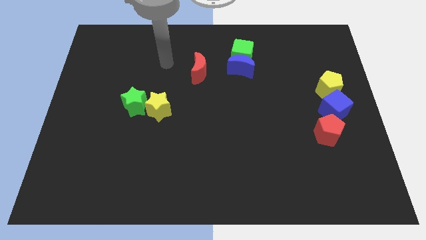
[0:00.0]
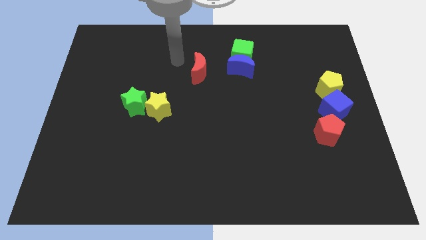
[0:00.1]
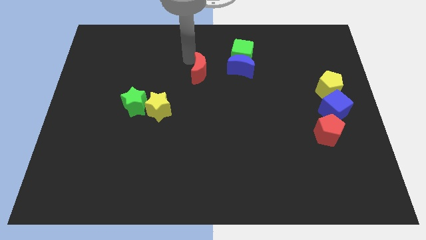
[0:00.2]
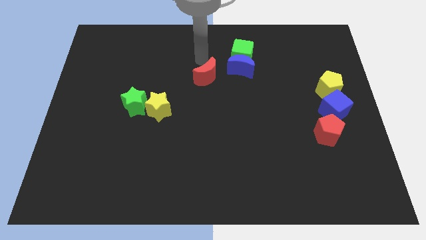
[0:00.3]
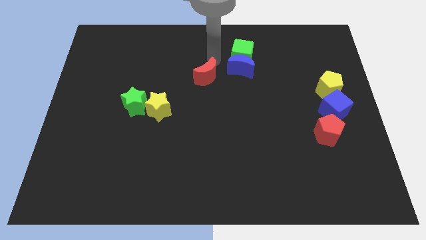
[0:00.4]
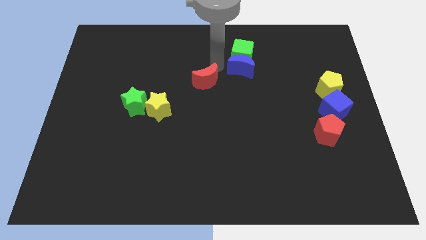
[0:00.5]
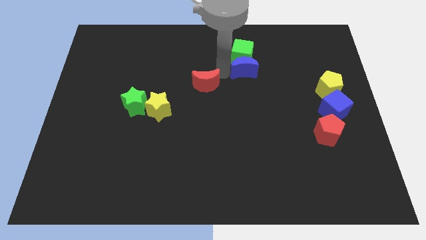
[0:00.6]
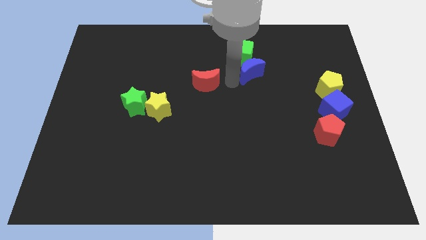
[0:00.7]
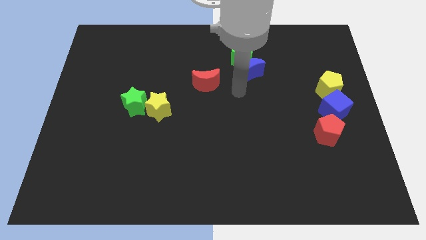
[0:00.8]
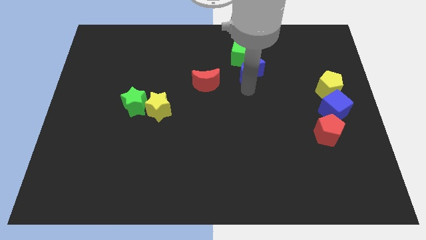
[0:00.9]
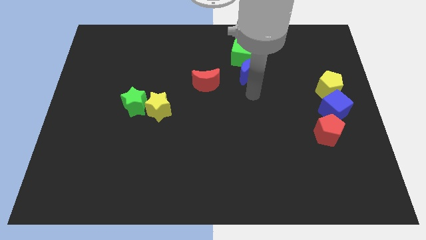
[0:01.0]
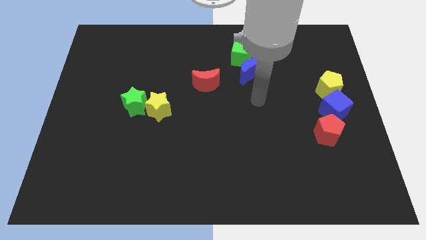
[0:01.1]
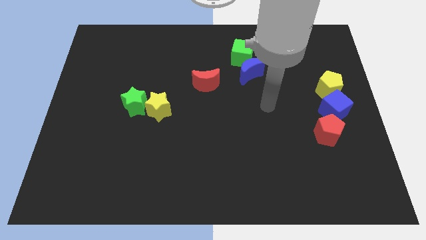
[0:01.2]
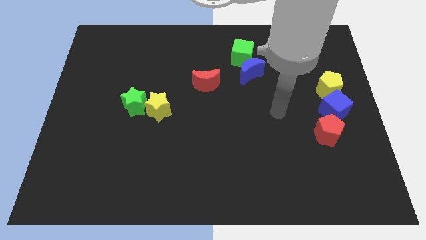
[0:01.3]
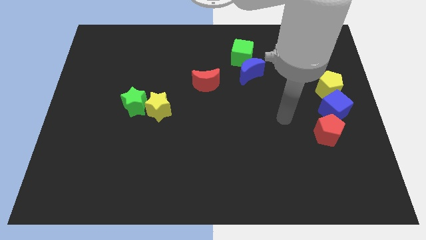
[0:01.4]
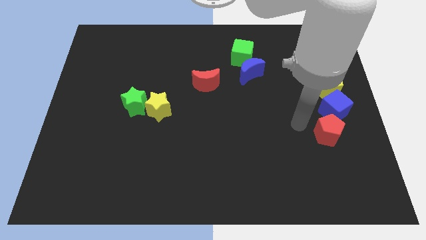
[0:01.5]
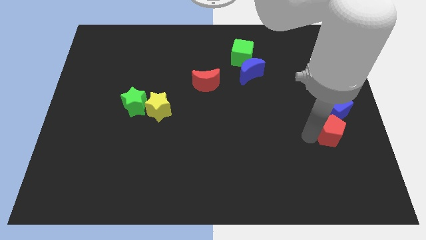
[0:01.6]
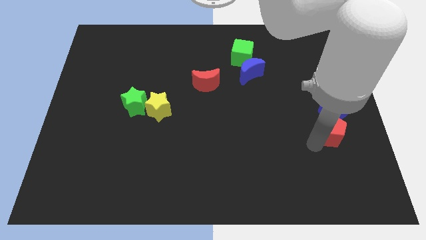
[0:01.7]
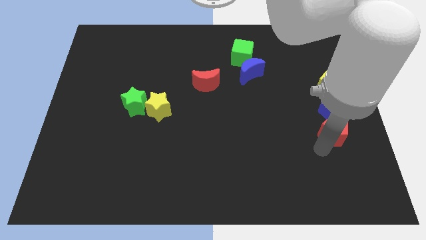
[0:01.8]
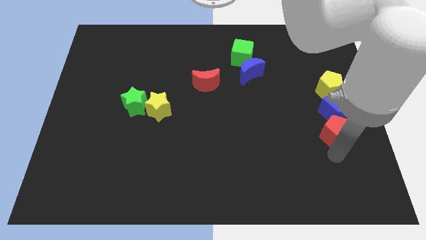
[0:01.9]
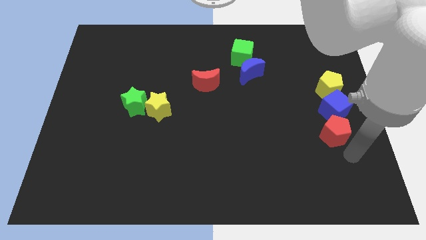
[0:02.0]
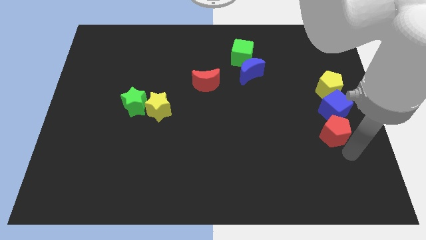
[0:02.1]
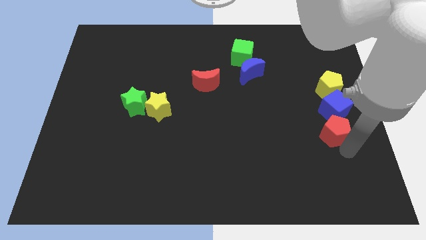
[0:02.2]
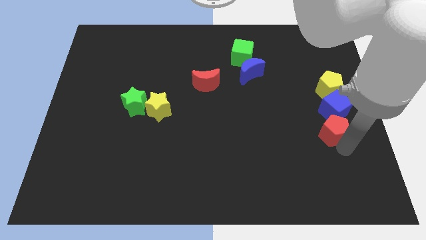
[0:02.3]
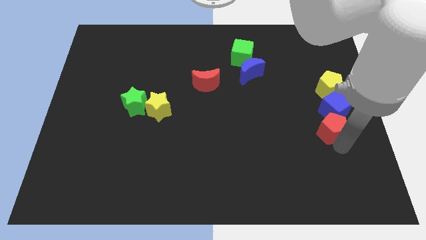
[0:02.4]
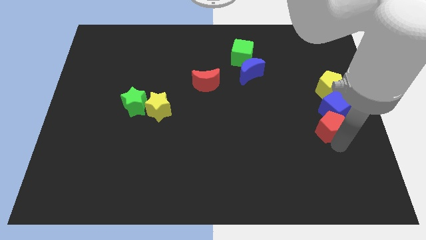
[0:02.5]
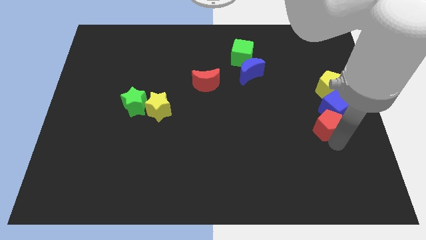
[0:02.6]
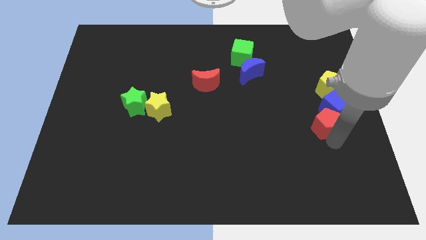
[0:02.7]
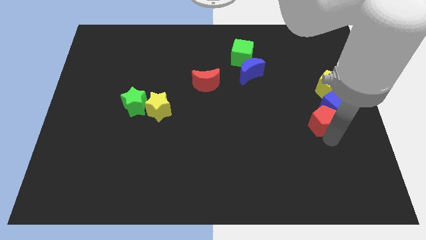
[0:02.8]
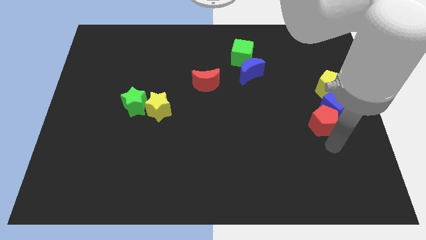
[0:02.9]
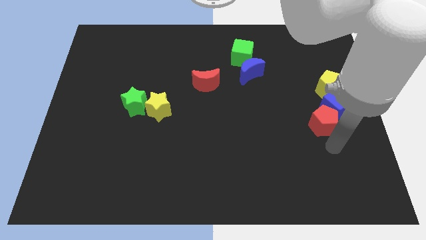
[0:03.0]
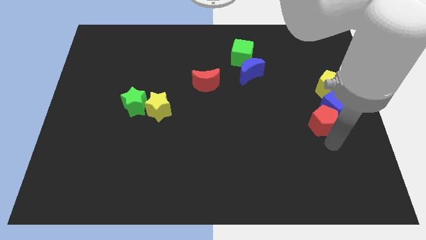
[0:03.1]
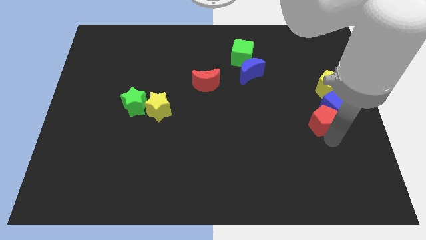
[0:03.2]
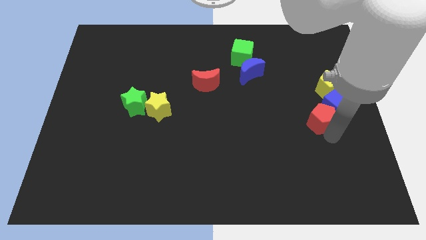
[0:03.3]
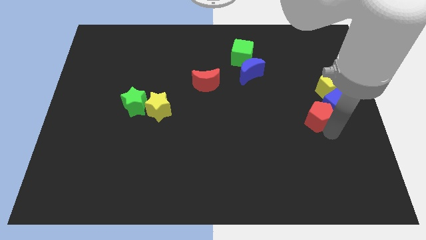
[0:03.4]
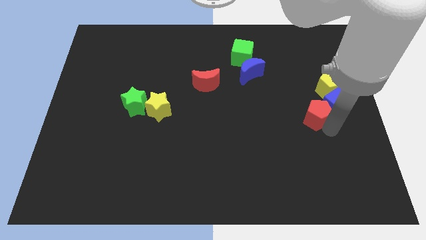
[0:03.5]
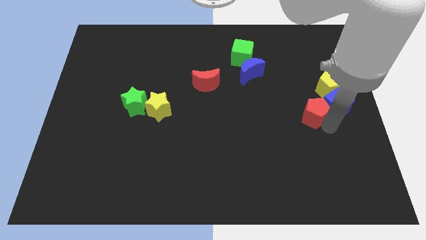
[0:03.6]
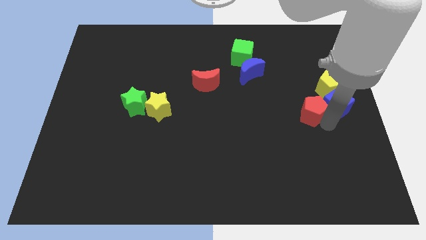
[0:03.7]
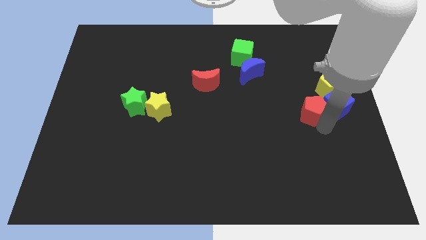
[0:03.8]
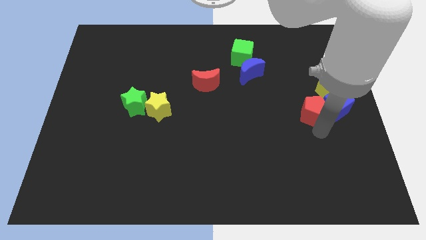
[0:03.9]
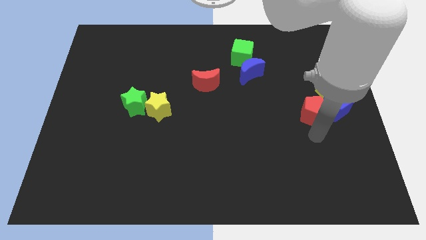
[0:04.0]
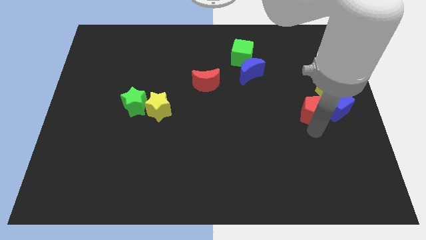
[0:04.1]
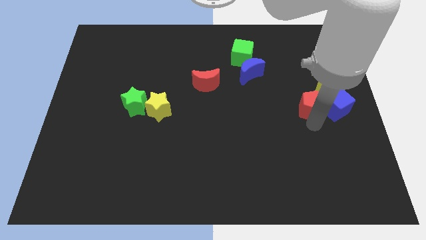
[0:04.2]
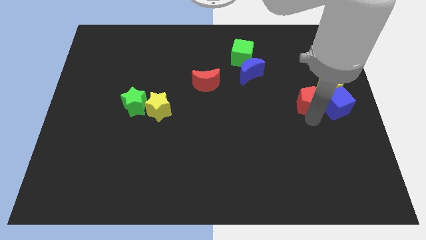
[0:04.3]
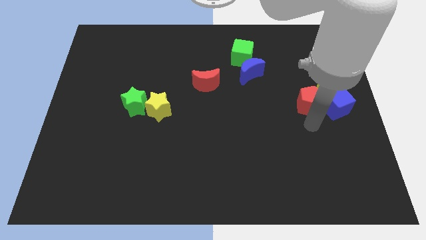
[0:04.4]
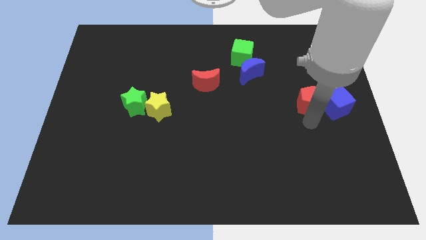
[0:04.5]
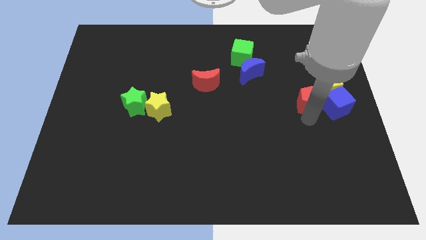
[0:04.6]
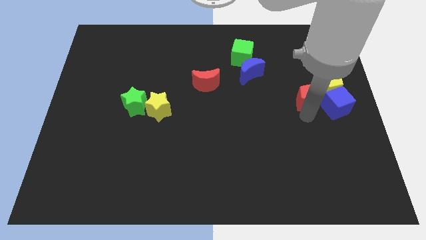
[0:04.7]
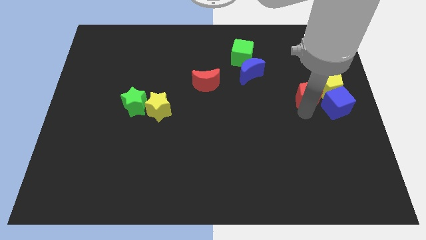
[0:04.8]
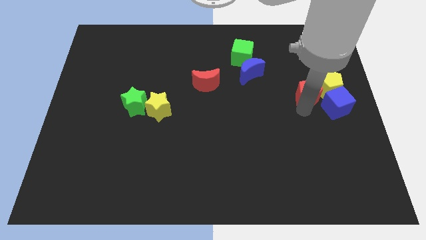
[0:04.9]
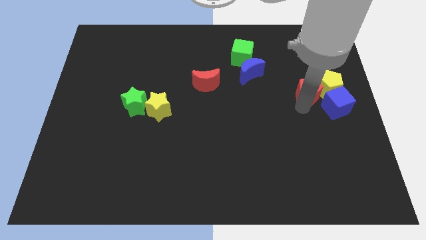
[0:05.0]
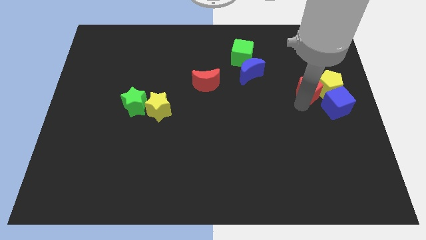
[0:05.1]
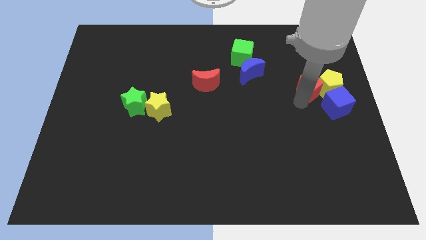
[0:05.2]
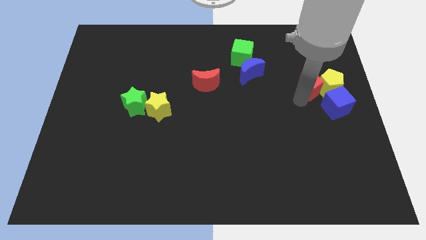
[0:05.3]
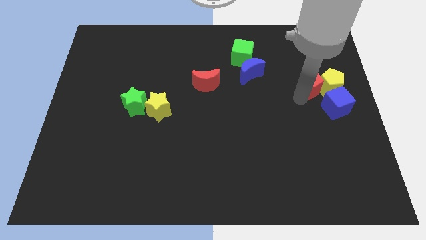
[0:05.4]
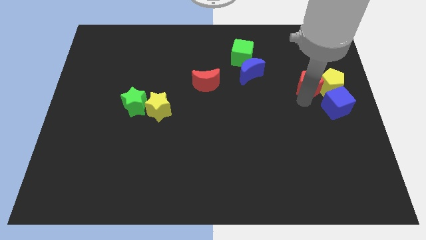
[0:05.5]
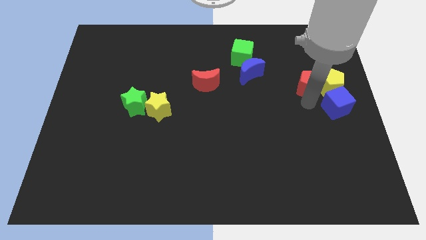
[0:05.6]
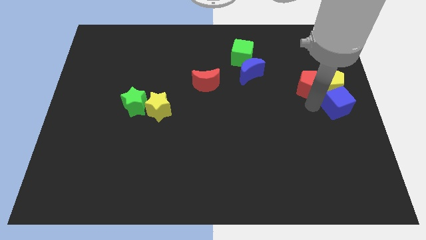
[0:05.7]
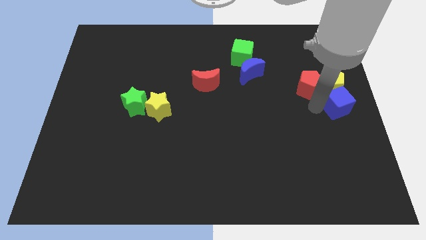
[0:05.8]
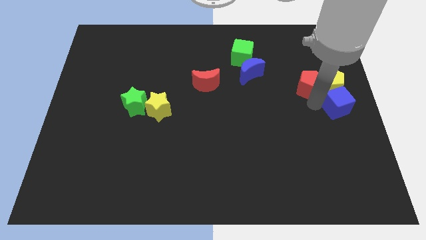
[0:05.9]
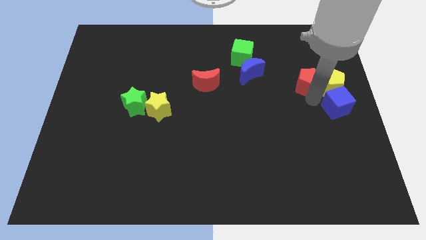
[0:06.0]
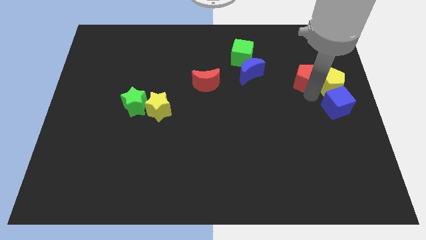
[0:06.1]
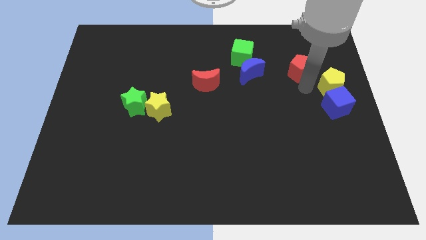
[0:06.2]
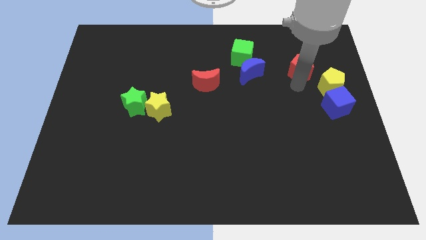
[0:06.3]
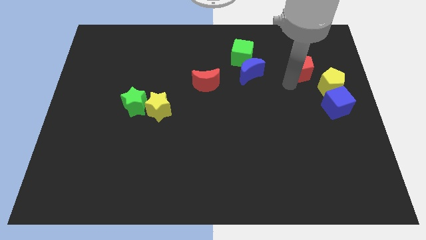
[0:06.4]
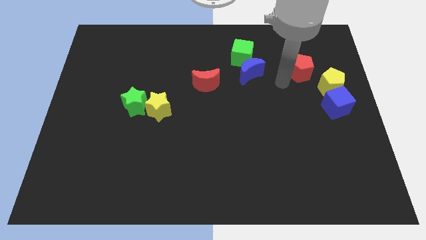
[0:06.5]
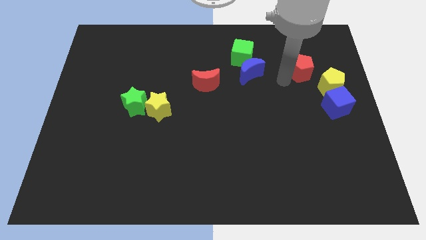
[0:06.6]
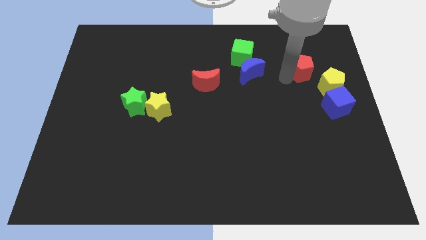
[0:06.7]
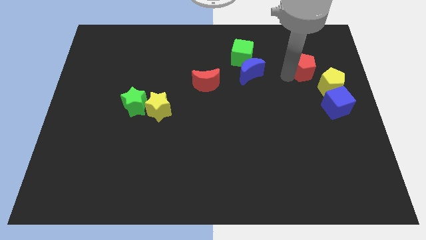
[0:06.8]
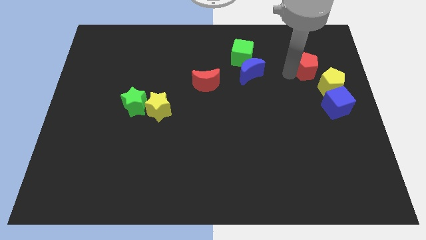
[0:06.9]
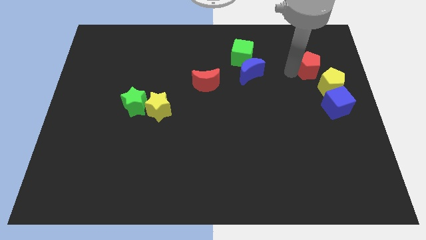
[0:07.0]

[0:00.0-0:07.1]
move the red pentagon above the yellow pentagon

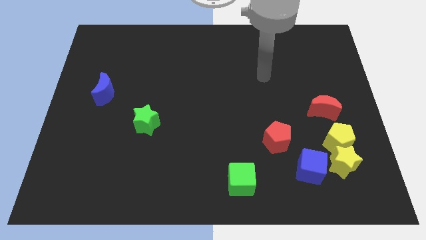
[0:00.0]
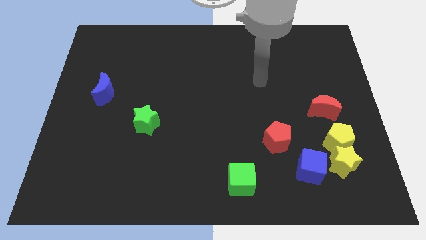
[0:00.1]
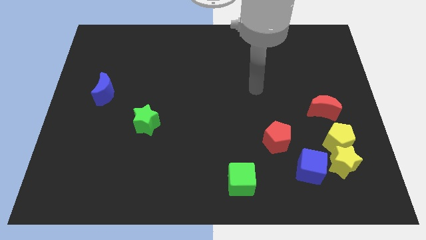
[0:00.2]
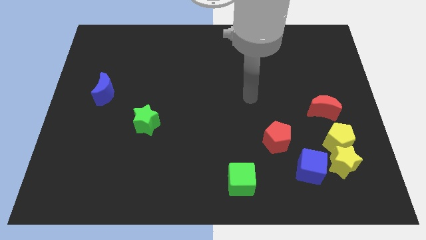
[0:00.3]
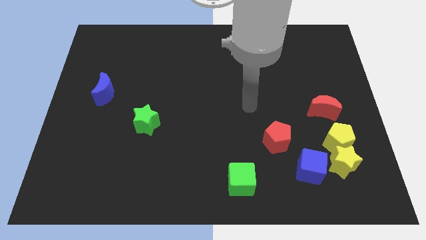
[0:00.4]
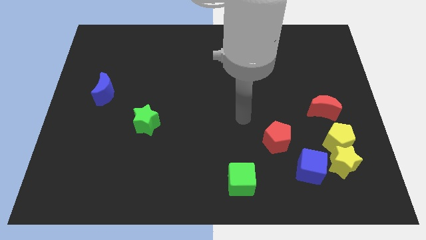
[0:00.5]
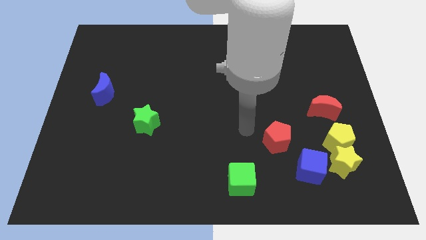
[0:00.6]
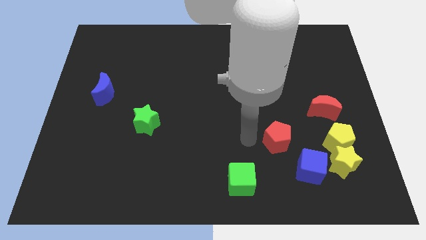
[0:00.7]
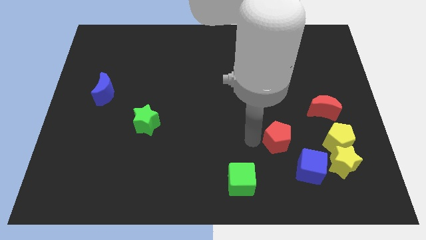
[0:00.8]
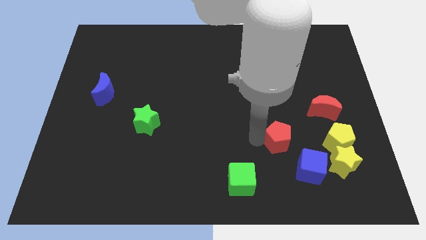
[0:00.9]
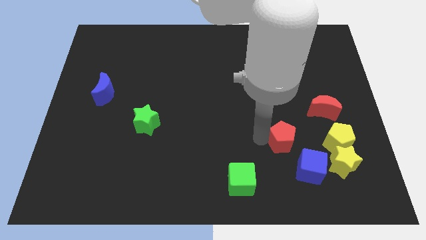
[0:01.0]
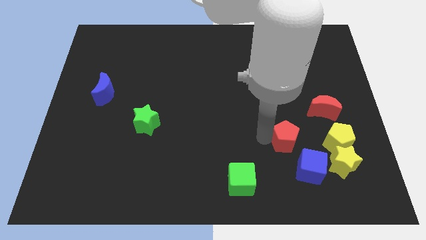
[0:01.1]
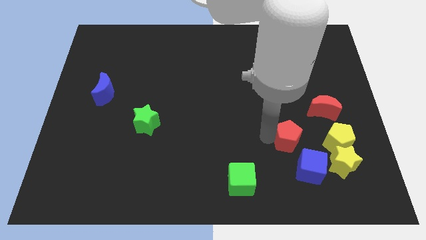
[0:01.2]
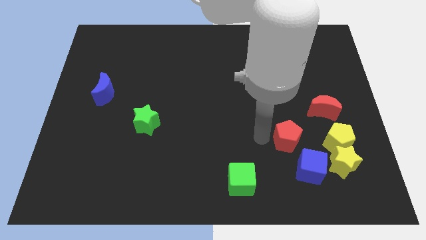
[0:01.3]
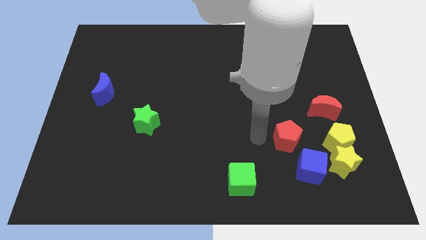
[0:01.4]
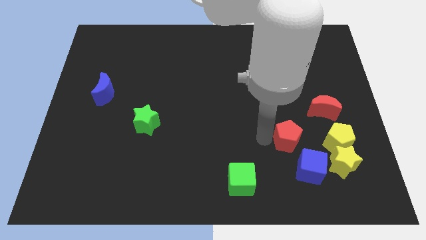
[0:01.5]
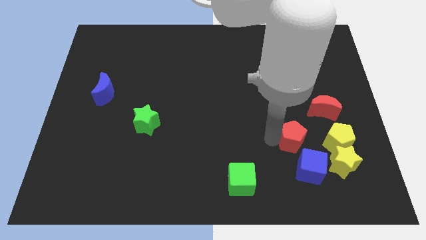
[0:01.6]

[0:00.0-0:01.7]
slide the red pentagon to the top left of the yellow star
